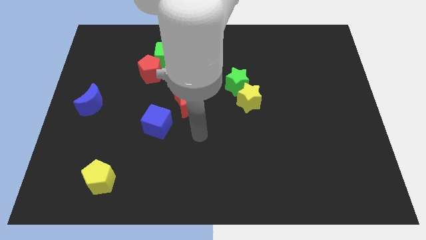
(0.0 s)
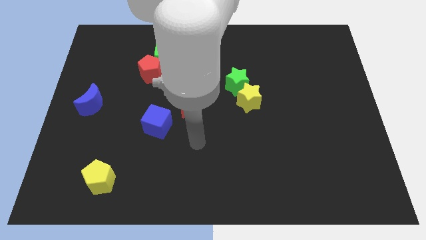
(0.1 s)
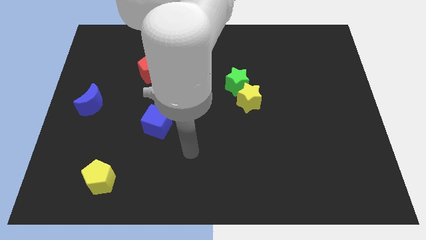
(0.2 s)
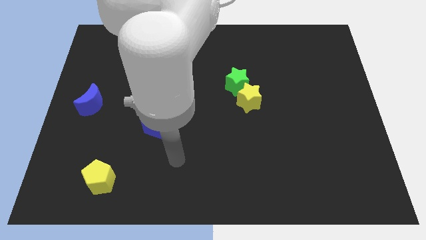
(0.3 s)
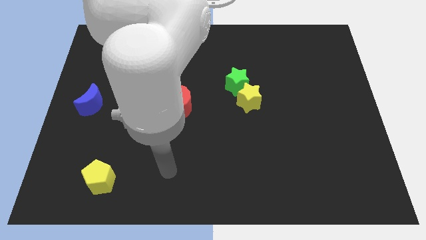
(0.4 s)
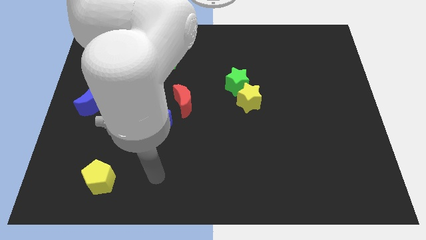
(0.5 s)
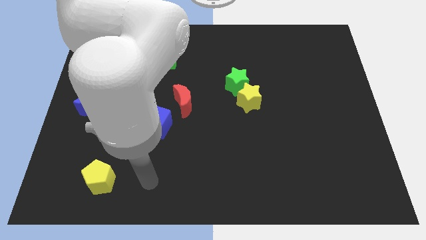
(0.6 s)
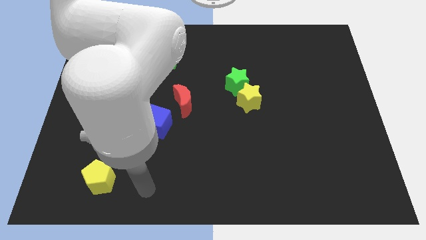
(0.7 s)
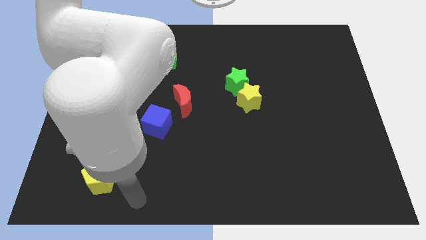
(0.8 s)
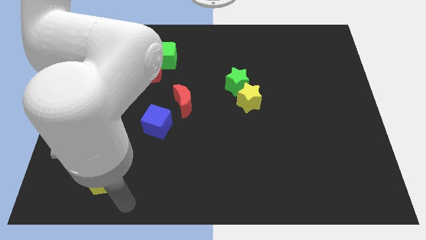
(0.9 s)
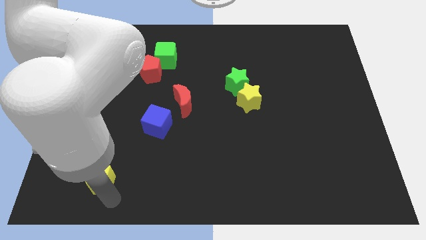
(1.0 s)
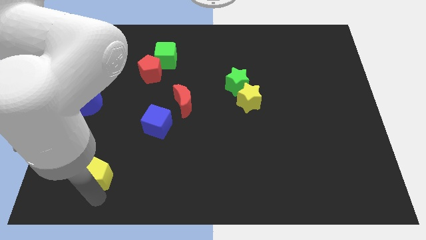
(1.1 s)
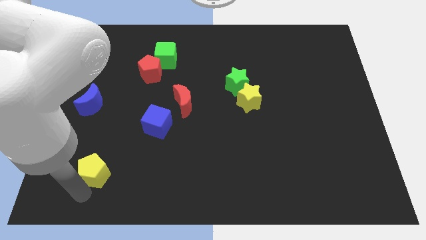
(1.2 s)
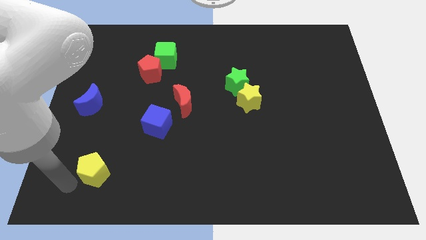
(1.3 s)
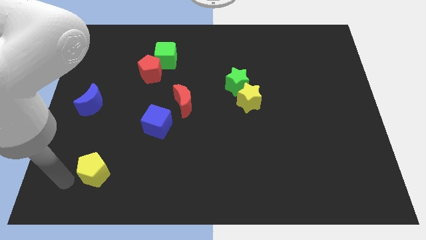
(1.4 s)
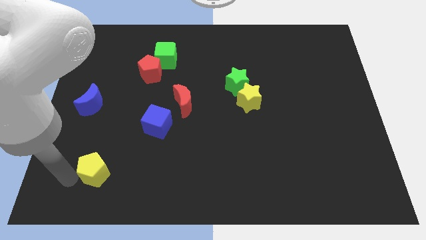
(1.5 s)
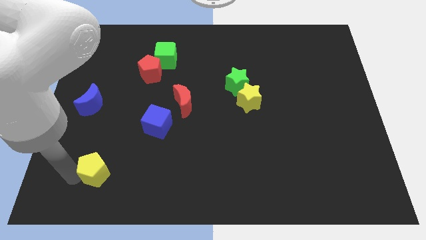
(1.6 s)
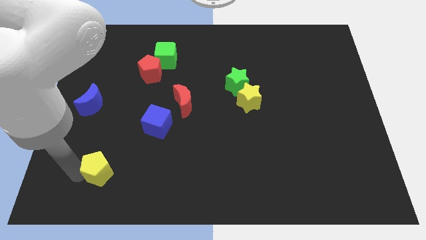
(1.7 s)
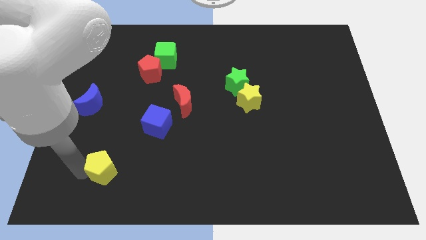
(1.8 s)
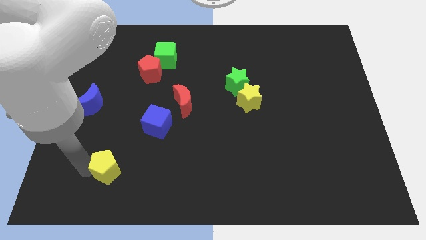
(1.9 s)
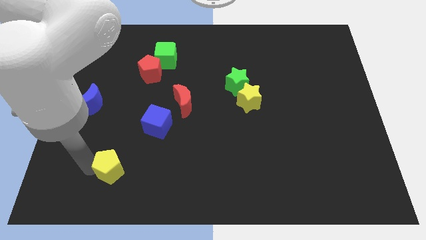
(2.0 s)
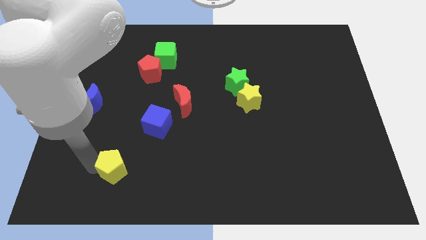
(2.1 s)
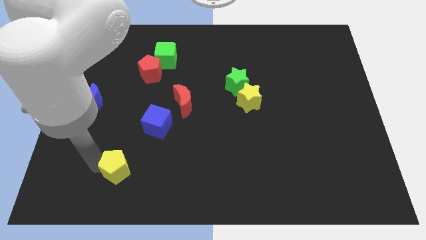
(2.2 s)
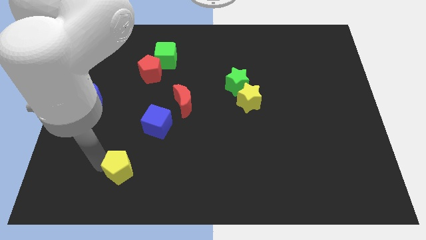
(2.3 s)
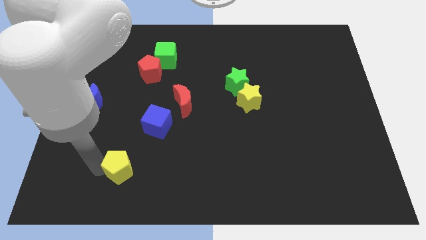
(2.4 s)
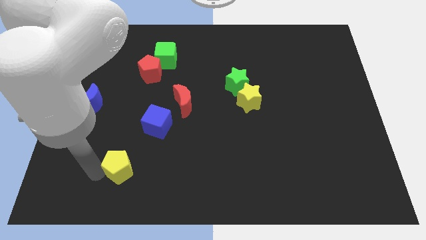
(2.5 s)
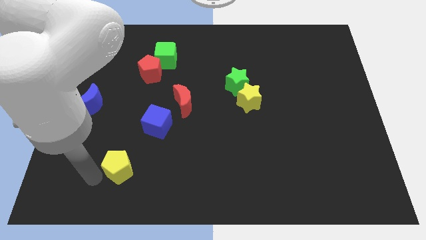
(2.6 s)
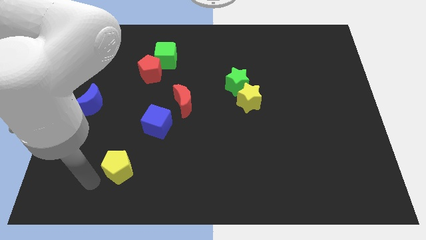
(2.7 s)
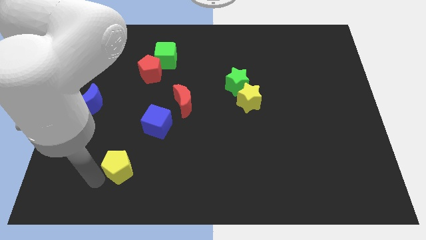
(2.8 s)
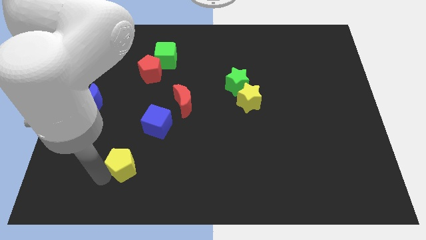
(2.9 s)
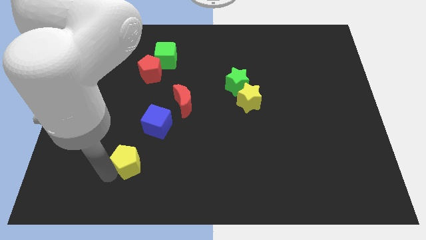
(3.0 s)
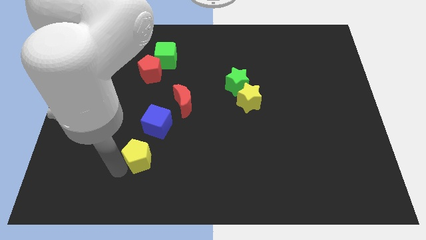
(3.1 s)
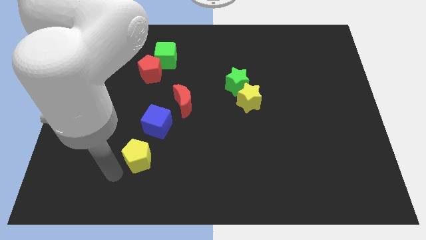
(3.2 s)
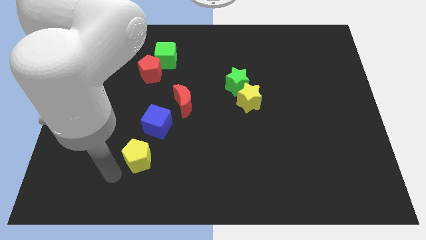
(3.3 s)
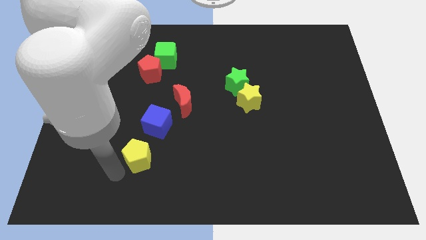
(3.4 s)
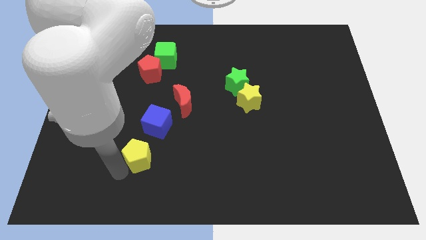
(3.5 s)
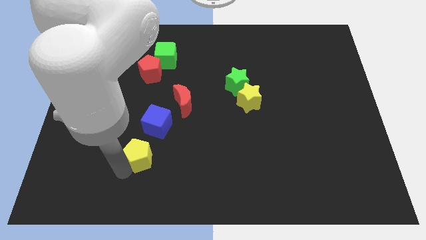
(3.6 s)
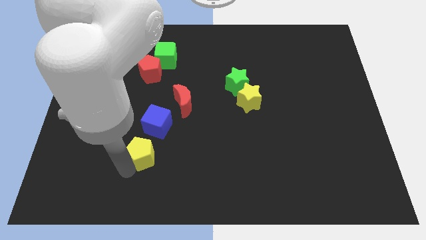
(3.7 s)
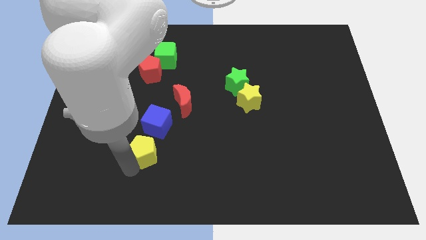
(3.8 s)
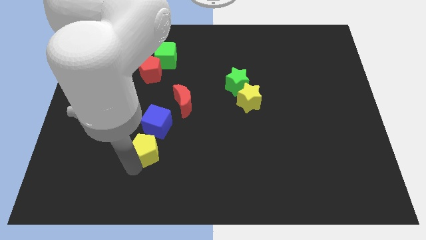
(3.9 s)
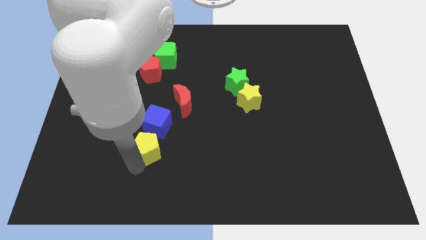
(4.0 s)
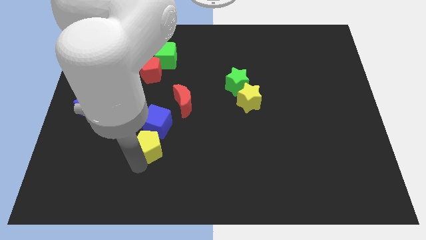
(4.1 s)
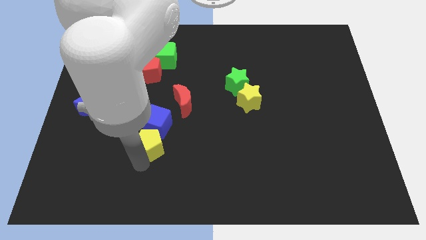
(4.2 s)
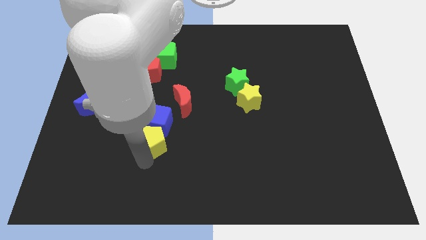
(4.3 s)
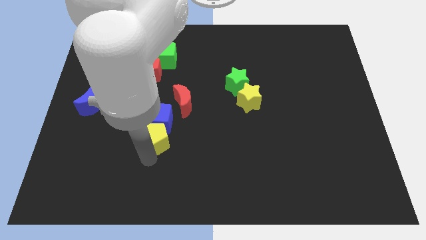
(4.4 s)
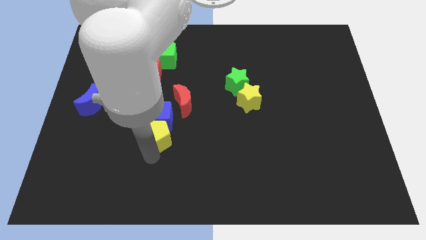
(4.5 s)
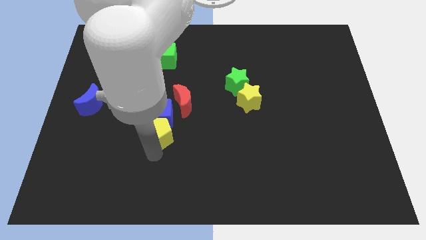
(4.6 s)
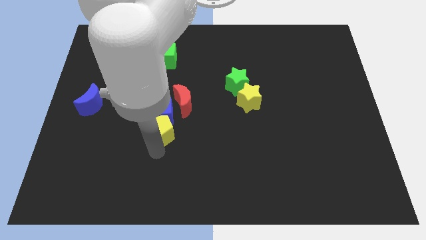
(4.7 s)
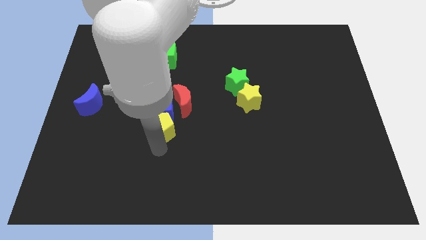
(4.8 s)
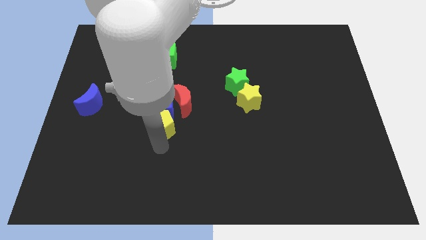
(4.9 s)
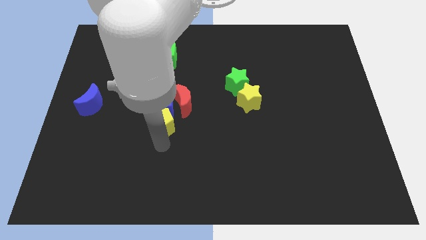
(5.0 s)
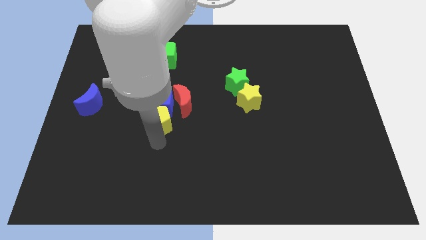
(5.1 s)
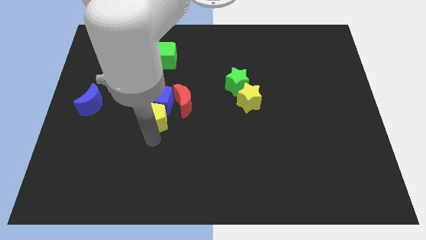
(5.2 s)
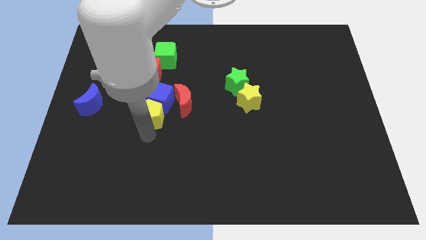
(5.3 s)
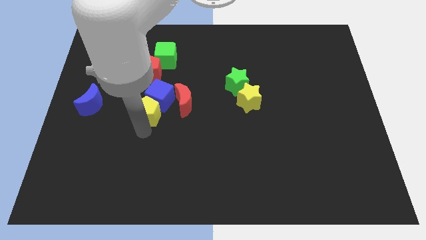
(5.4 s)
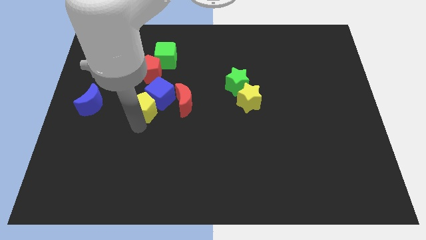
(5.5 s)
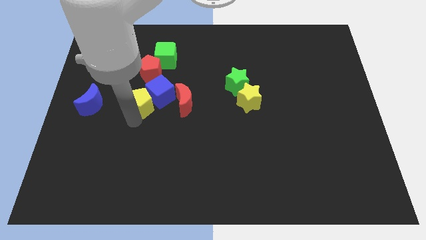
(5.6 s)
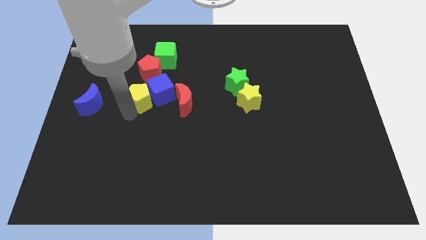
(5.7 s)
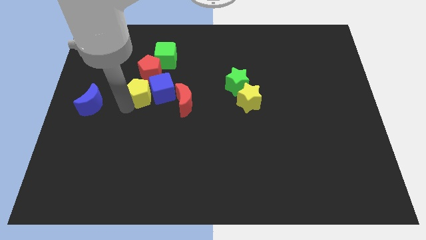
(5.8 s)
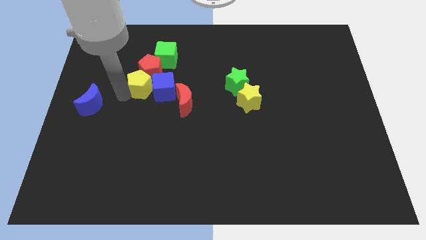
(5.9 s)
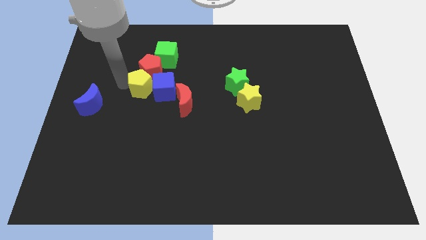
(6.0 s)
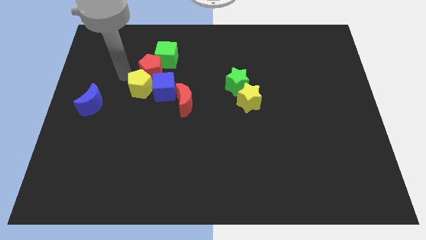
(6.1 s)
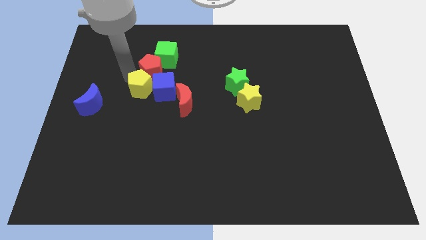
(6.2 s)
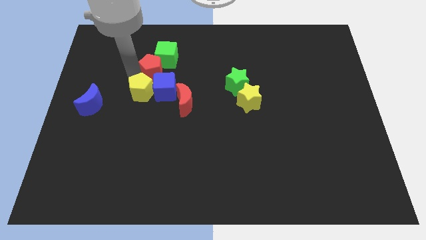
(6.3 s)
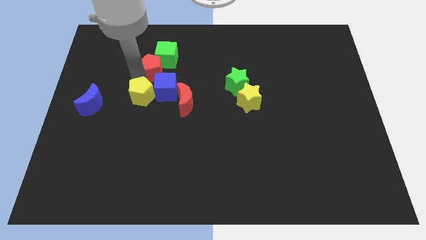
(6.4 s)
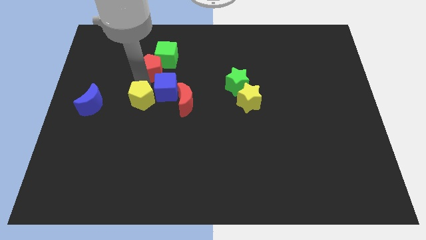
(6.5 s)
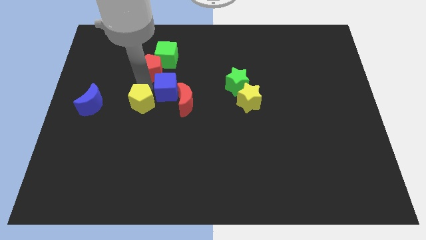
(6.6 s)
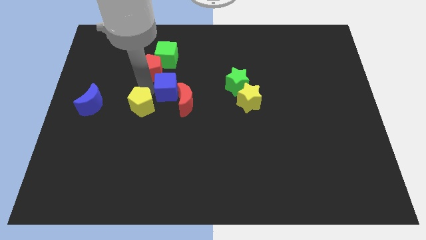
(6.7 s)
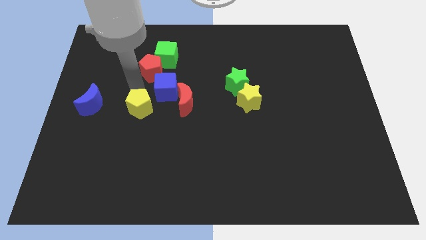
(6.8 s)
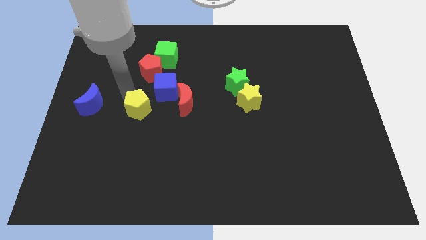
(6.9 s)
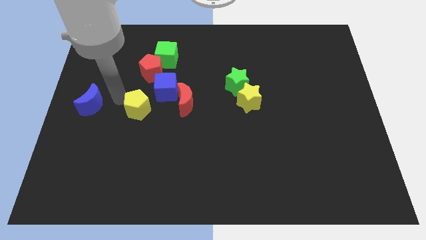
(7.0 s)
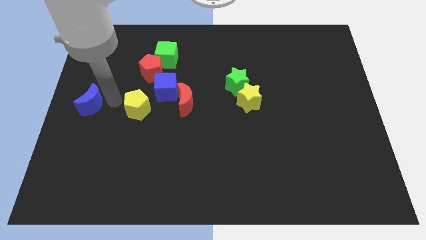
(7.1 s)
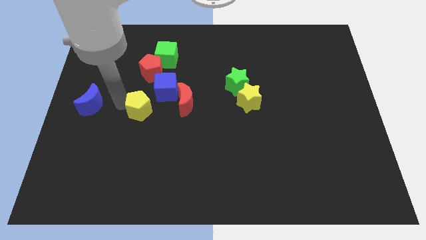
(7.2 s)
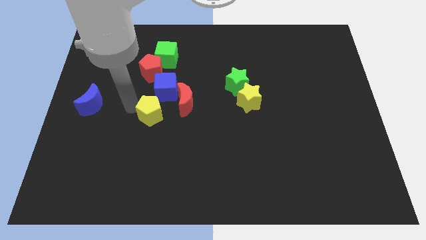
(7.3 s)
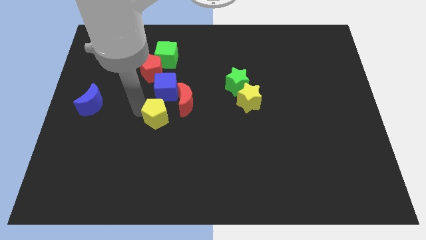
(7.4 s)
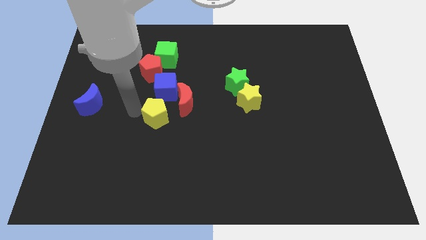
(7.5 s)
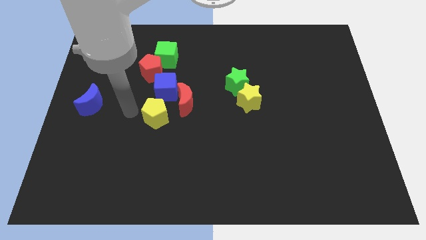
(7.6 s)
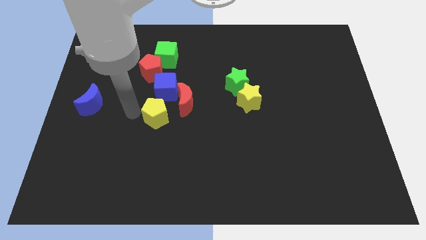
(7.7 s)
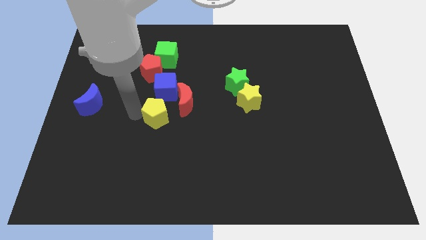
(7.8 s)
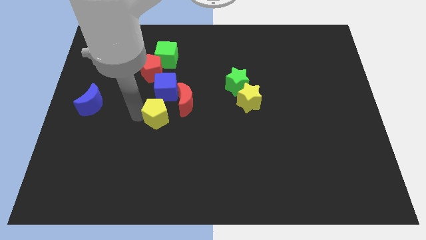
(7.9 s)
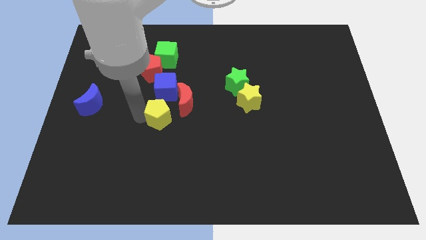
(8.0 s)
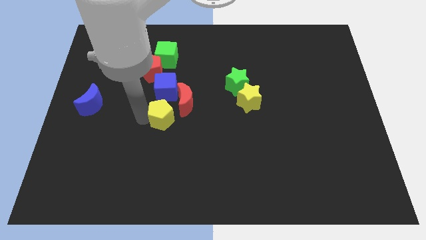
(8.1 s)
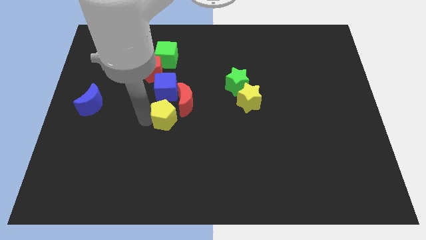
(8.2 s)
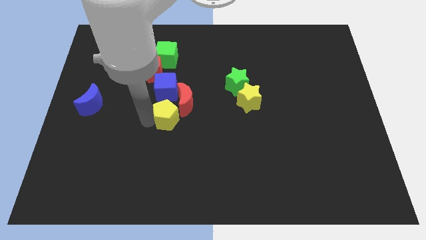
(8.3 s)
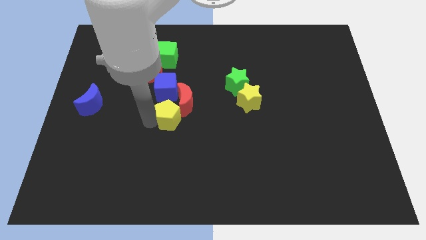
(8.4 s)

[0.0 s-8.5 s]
push the yellow pentagon towards the red moon
